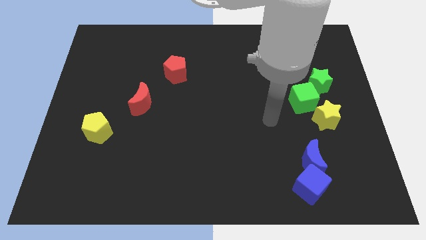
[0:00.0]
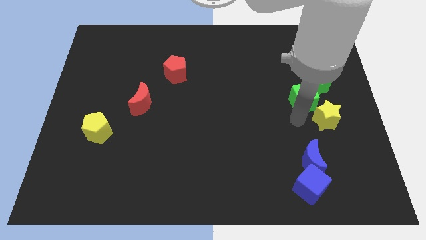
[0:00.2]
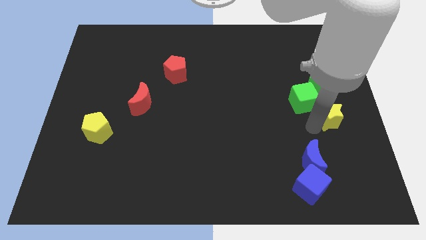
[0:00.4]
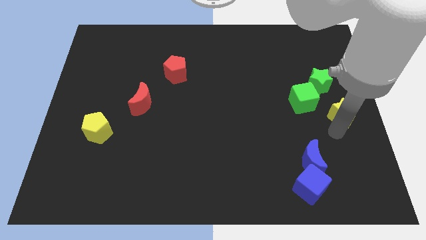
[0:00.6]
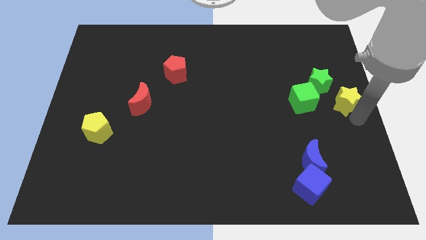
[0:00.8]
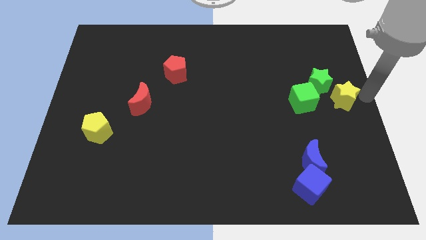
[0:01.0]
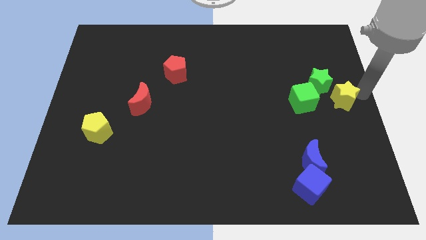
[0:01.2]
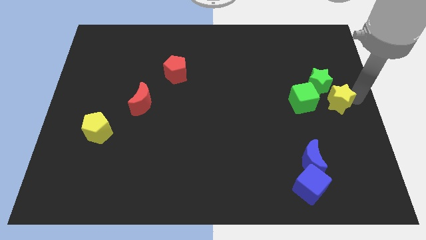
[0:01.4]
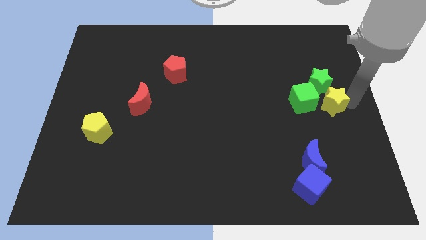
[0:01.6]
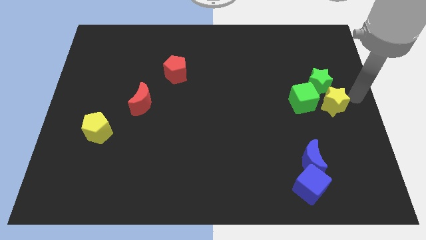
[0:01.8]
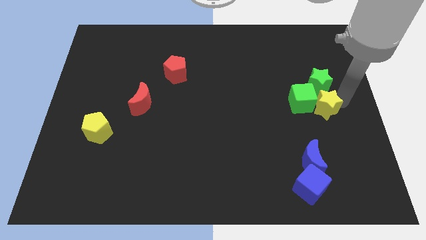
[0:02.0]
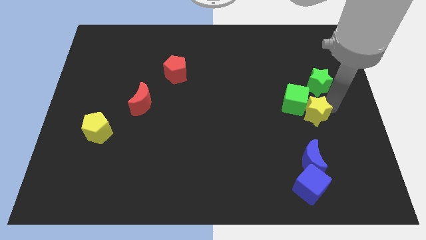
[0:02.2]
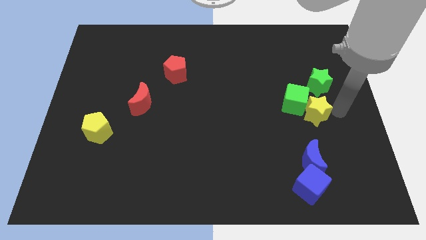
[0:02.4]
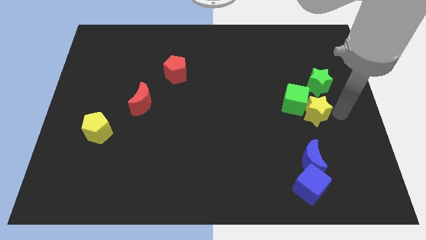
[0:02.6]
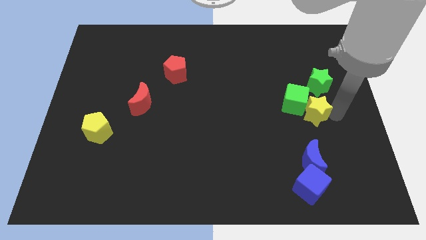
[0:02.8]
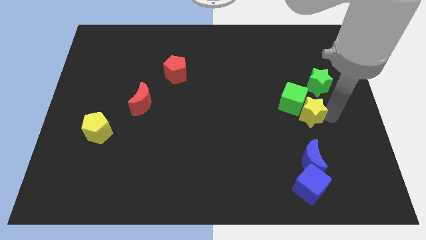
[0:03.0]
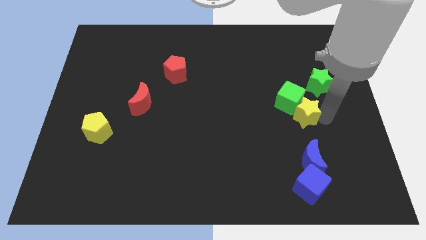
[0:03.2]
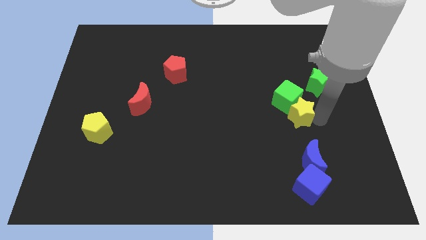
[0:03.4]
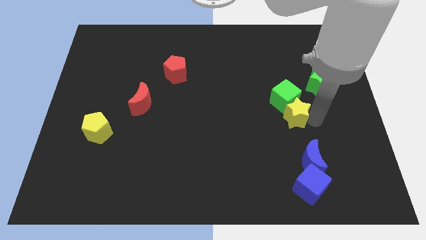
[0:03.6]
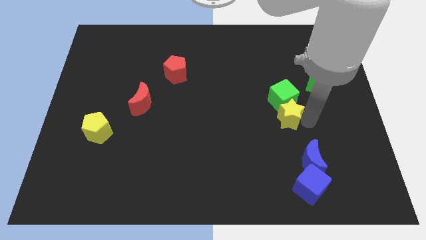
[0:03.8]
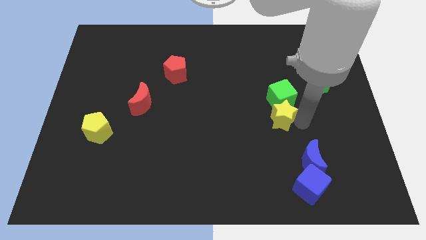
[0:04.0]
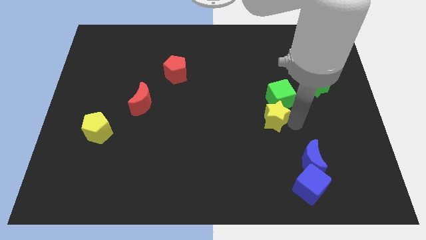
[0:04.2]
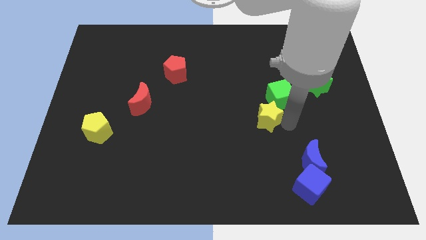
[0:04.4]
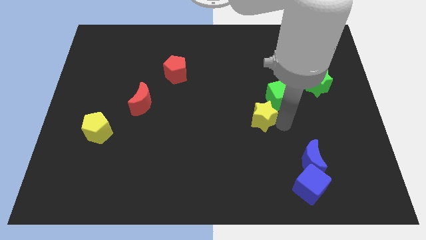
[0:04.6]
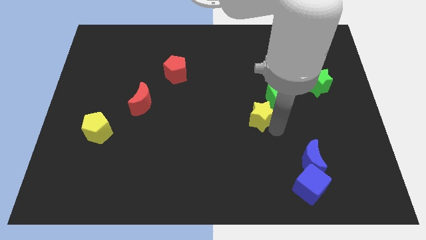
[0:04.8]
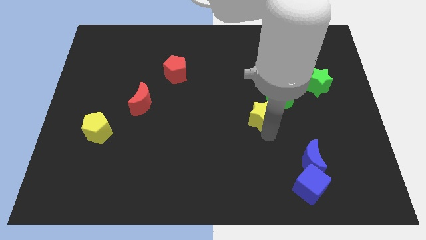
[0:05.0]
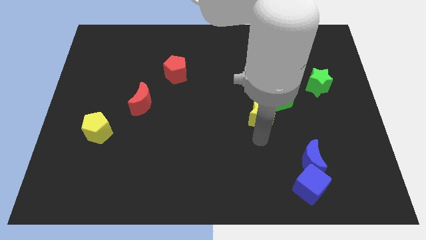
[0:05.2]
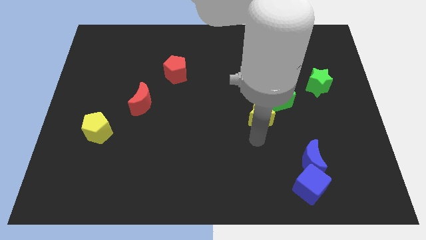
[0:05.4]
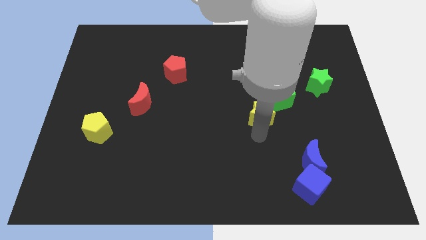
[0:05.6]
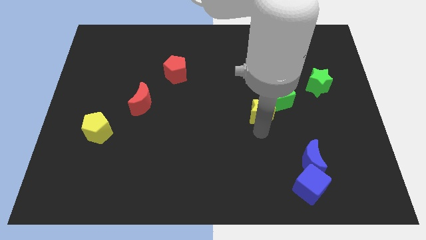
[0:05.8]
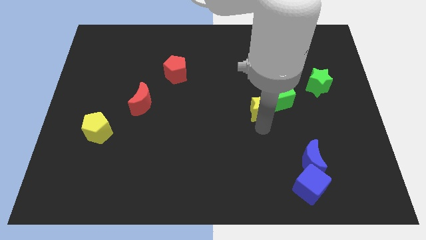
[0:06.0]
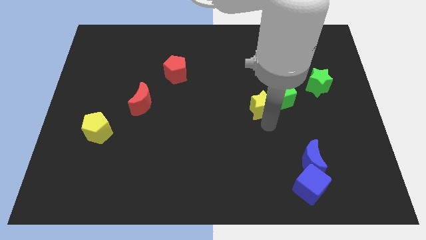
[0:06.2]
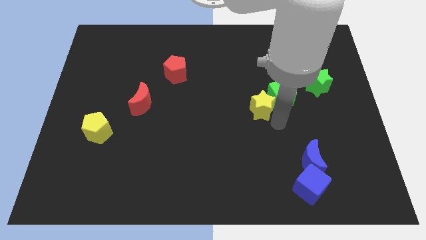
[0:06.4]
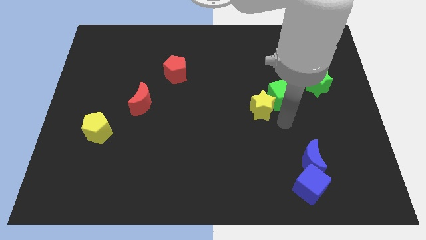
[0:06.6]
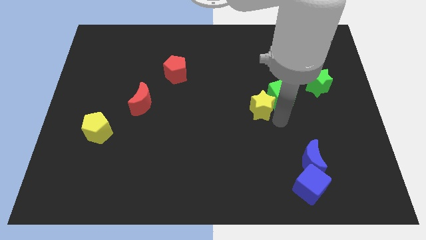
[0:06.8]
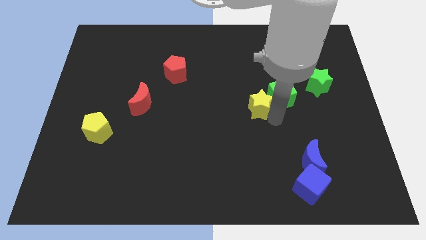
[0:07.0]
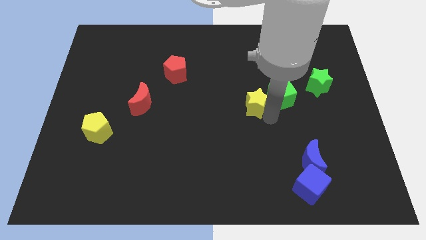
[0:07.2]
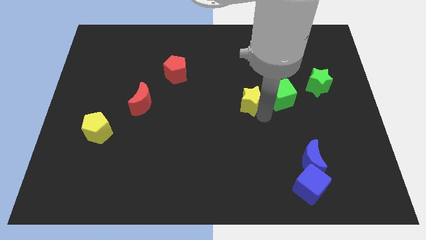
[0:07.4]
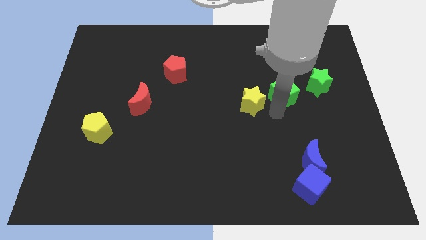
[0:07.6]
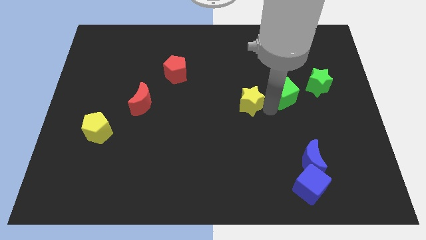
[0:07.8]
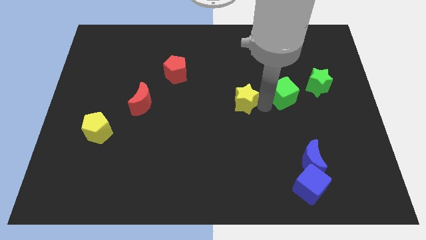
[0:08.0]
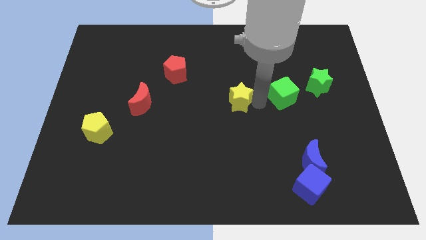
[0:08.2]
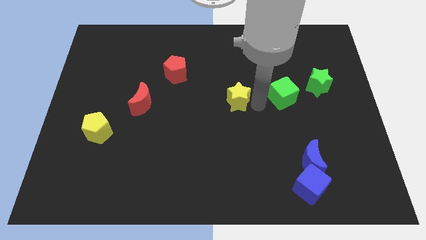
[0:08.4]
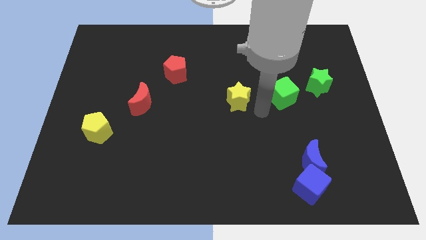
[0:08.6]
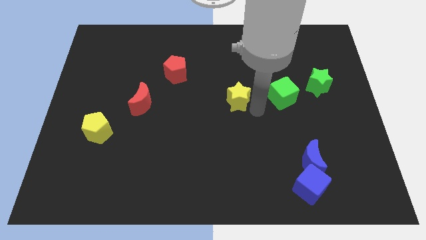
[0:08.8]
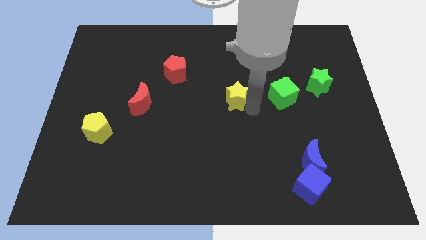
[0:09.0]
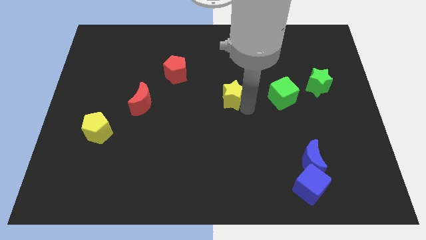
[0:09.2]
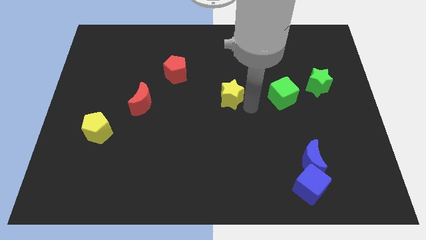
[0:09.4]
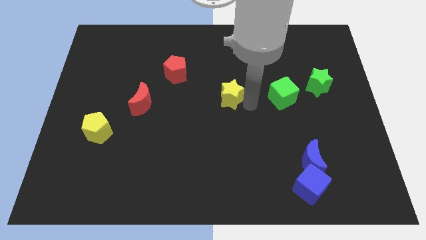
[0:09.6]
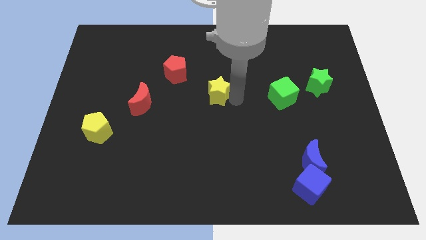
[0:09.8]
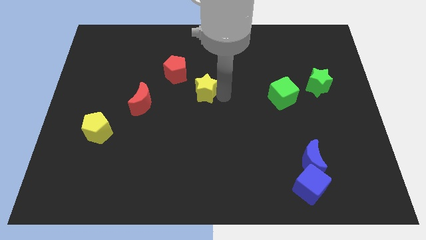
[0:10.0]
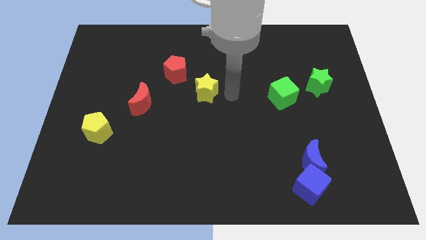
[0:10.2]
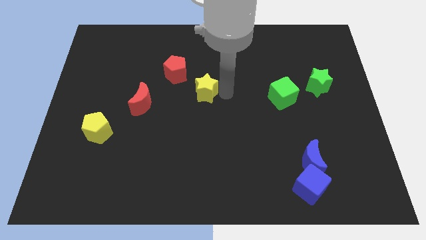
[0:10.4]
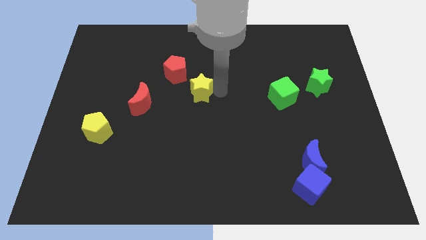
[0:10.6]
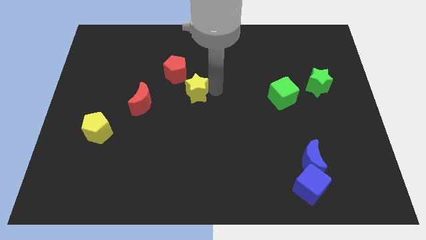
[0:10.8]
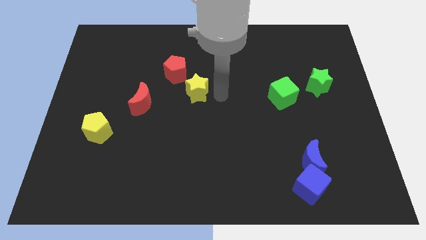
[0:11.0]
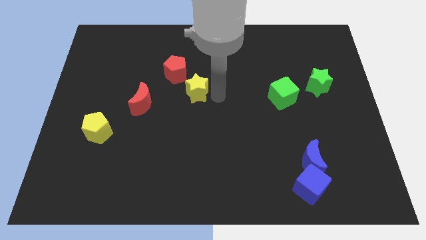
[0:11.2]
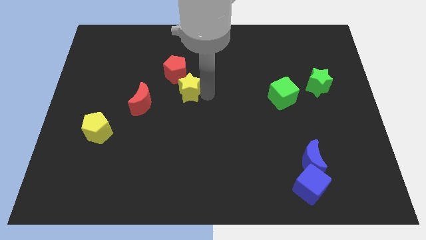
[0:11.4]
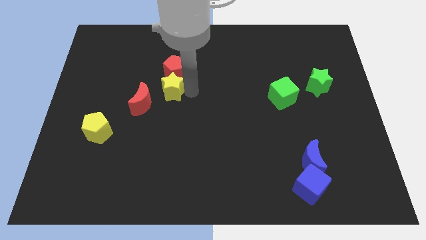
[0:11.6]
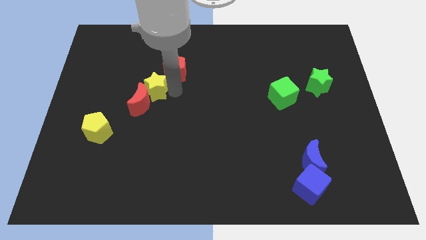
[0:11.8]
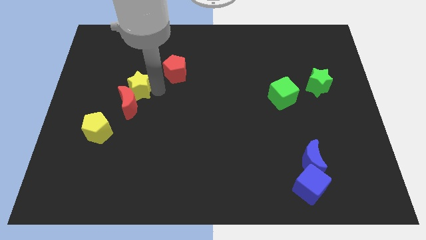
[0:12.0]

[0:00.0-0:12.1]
slide the yellow star diagonally up and to the left of the red moon
